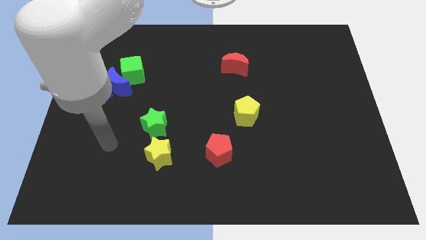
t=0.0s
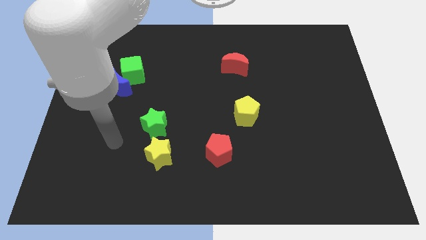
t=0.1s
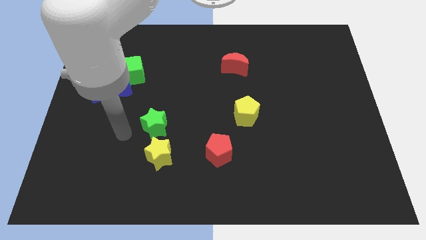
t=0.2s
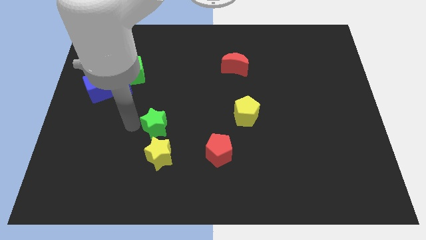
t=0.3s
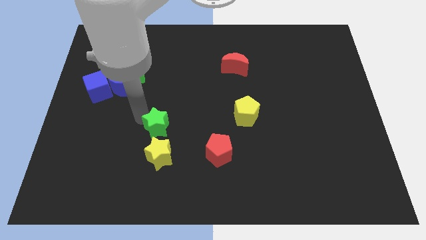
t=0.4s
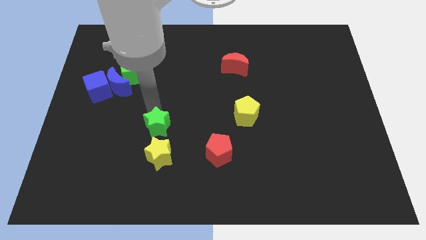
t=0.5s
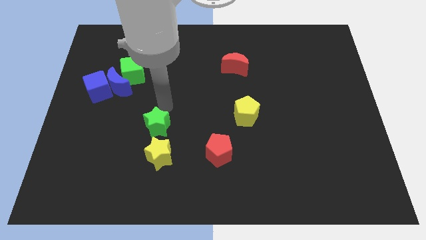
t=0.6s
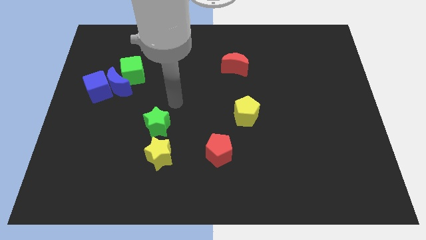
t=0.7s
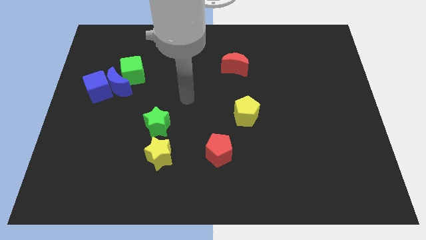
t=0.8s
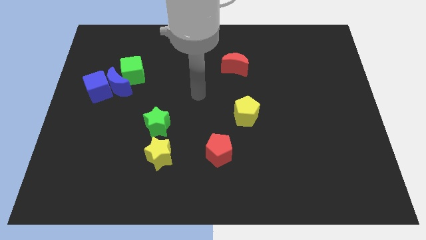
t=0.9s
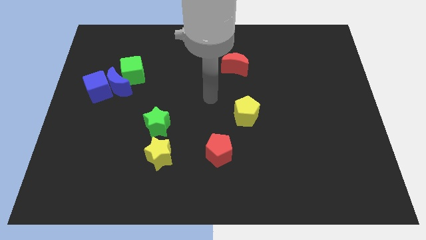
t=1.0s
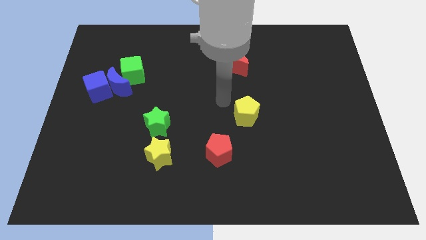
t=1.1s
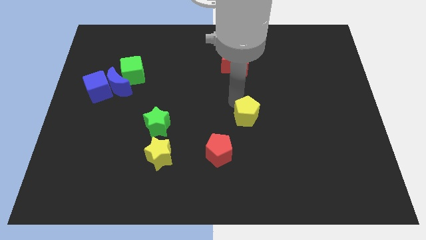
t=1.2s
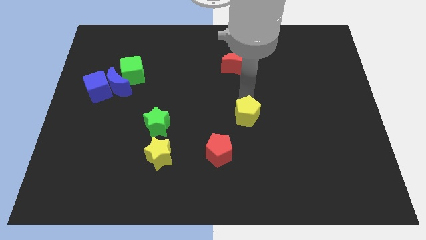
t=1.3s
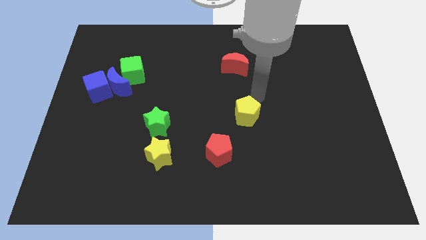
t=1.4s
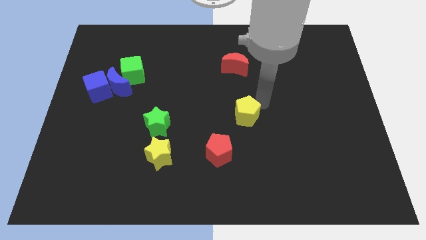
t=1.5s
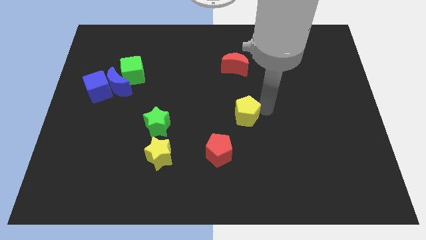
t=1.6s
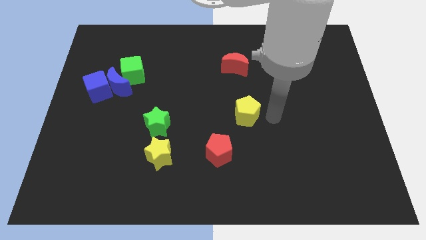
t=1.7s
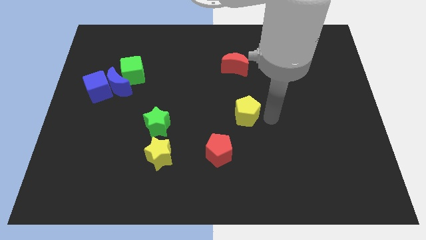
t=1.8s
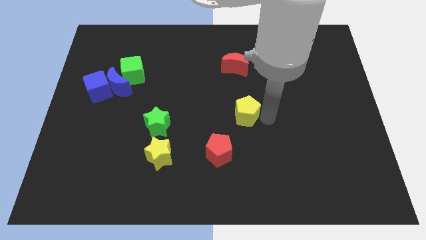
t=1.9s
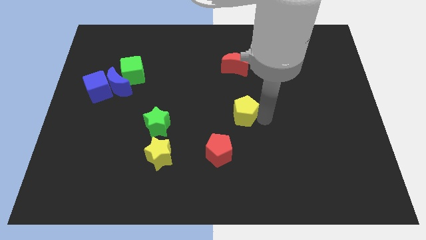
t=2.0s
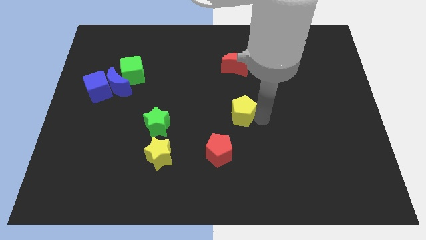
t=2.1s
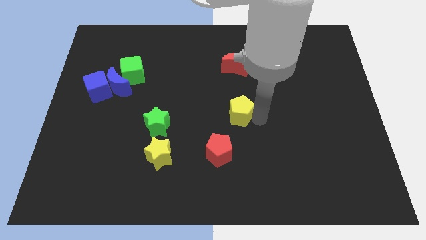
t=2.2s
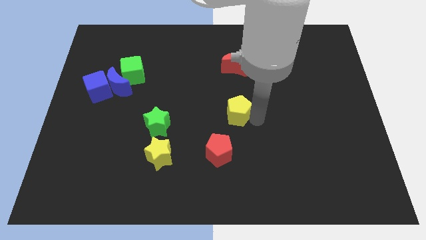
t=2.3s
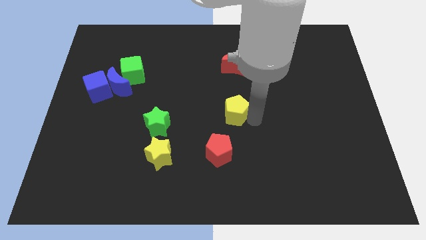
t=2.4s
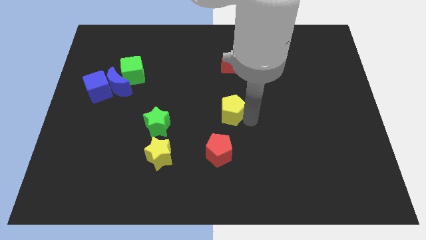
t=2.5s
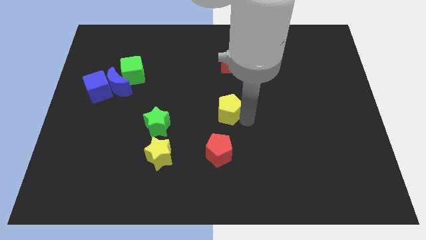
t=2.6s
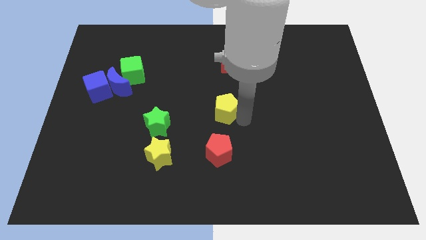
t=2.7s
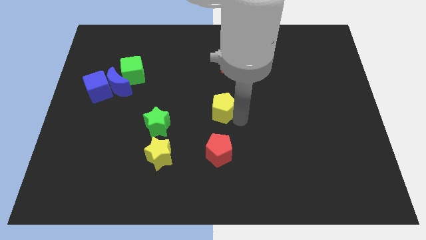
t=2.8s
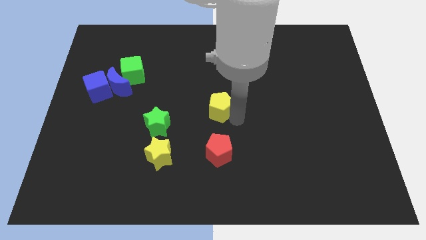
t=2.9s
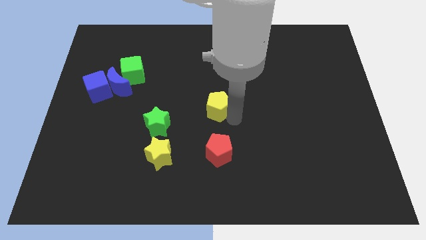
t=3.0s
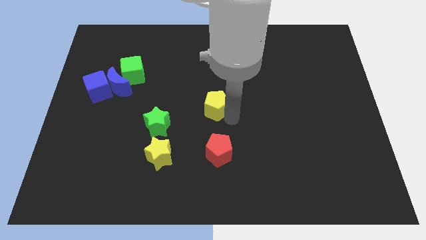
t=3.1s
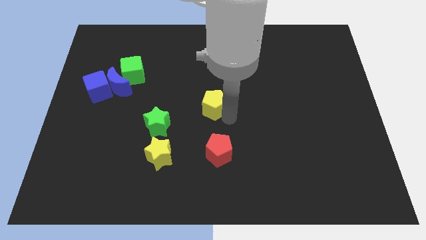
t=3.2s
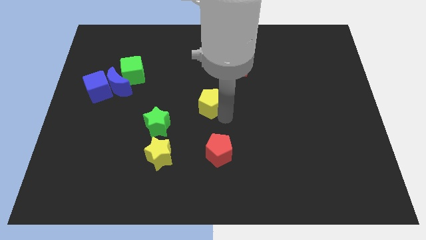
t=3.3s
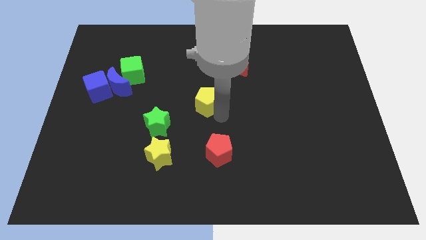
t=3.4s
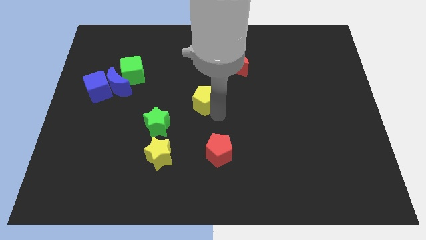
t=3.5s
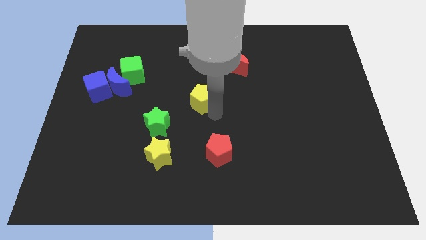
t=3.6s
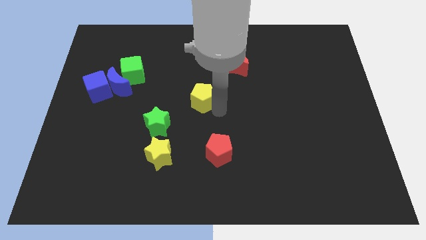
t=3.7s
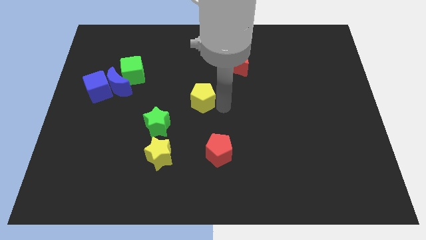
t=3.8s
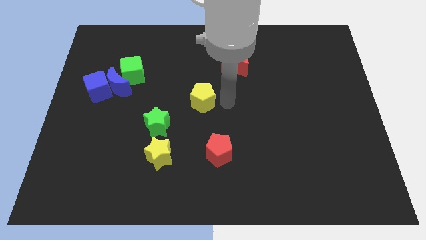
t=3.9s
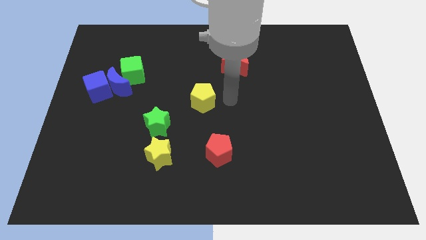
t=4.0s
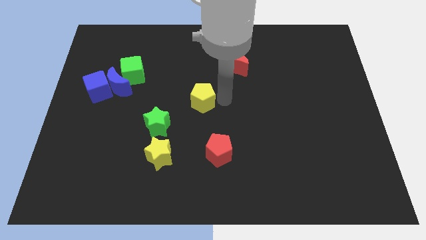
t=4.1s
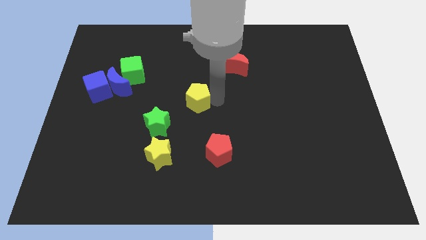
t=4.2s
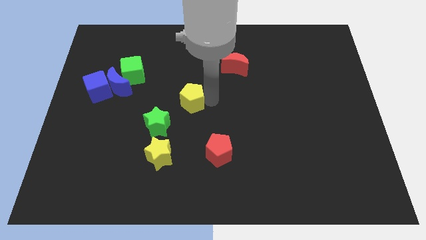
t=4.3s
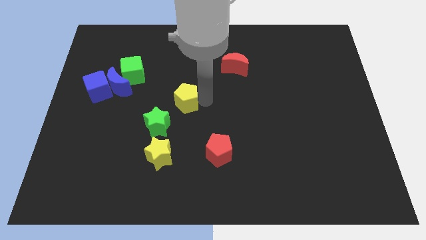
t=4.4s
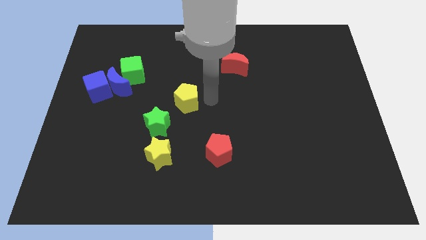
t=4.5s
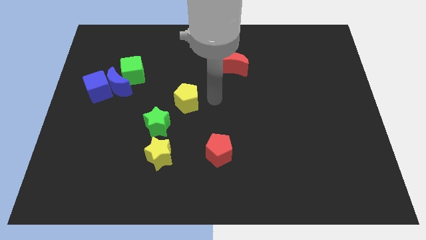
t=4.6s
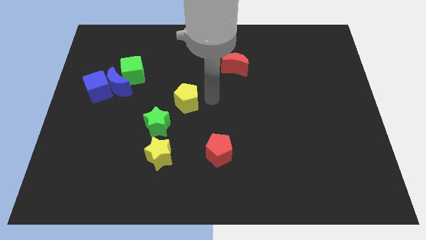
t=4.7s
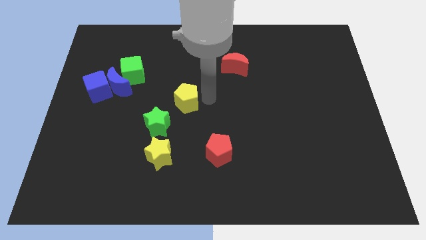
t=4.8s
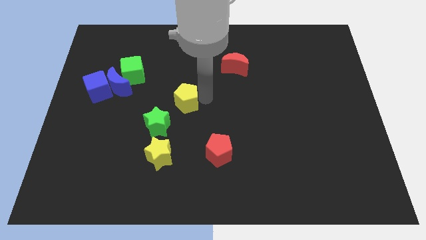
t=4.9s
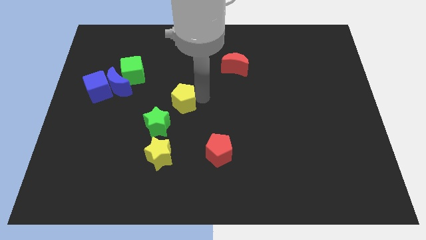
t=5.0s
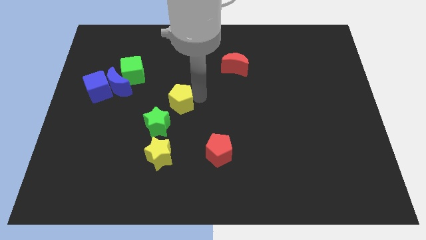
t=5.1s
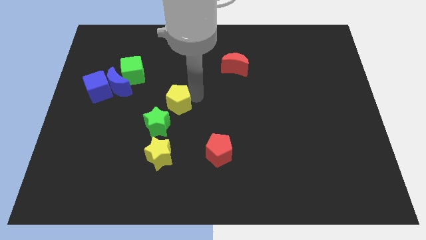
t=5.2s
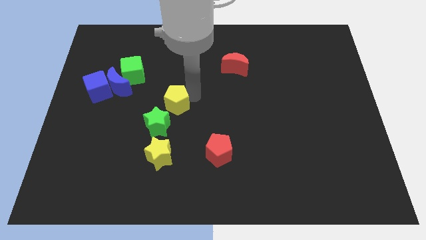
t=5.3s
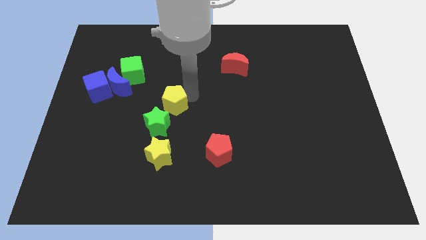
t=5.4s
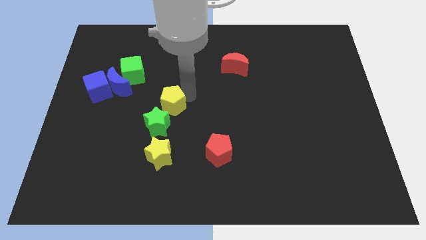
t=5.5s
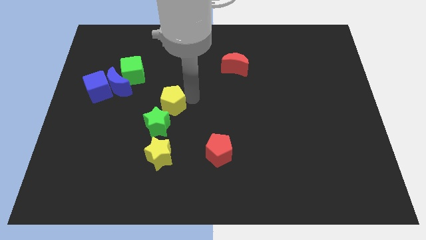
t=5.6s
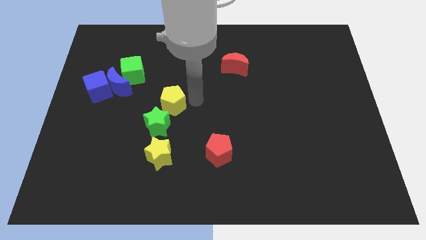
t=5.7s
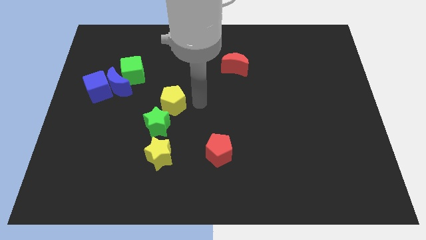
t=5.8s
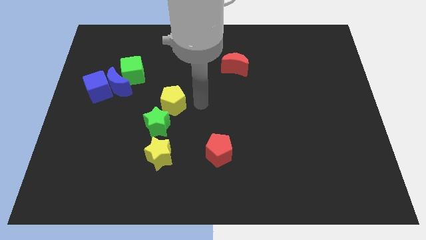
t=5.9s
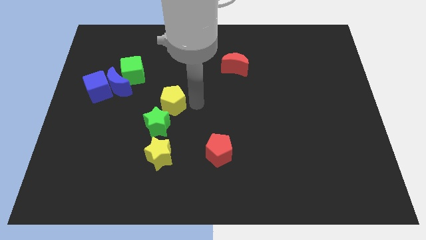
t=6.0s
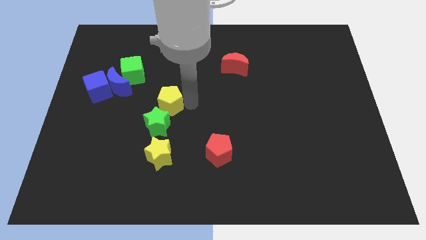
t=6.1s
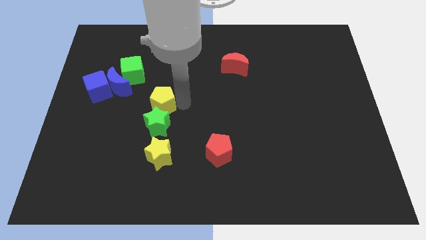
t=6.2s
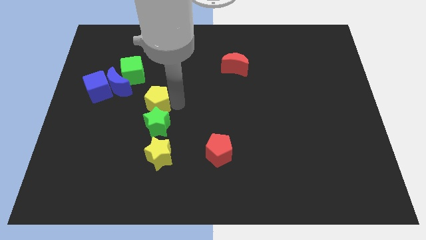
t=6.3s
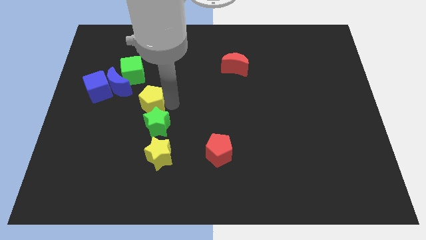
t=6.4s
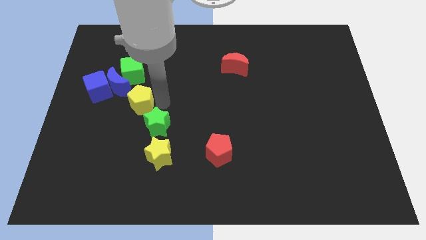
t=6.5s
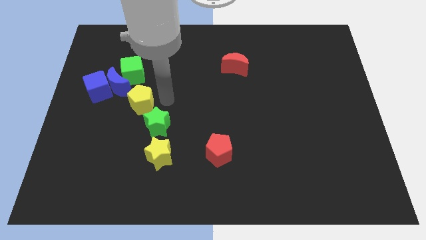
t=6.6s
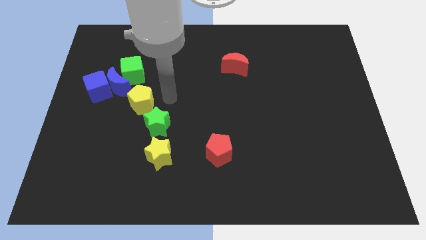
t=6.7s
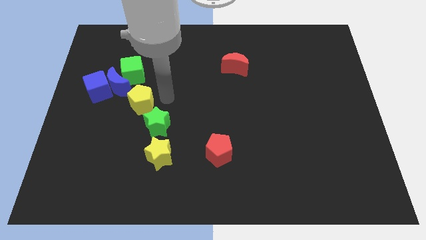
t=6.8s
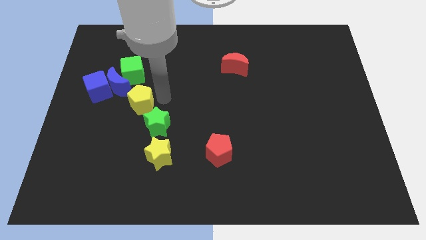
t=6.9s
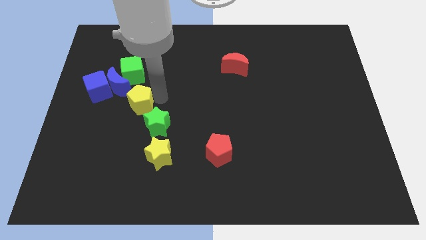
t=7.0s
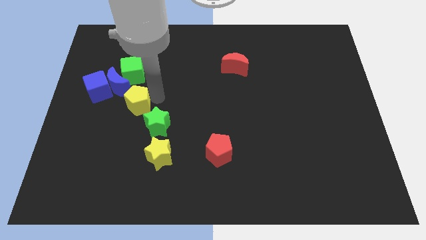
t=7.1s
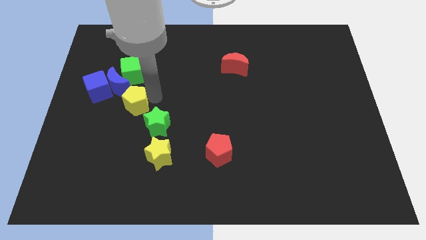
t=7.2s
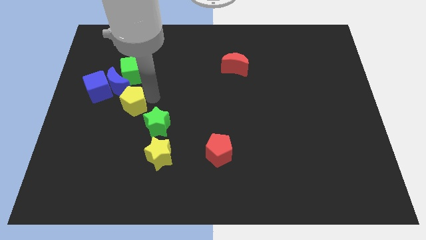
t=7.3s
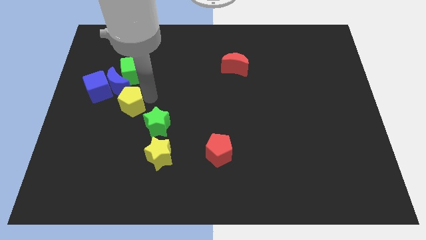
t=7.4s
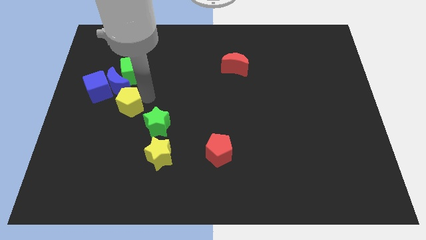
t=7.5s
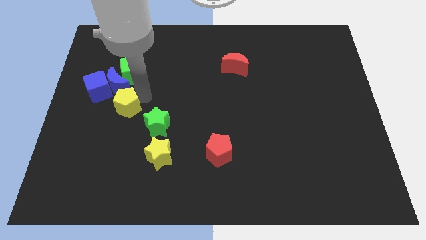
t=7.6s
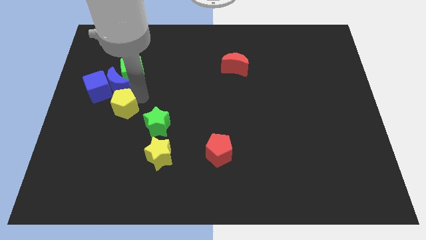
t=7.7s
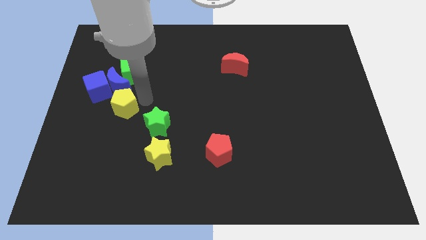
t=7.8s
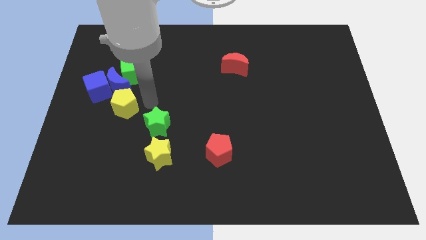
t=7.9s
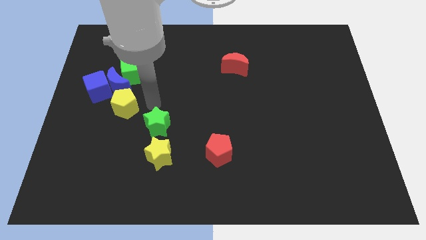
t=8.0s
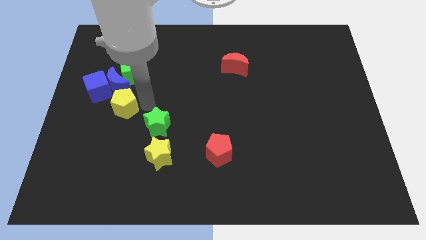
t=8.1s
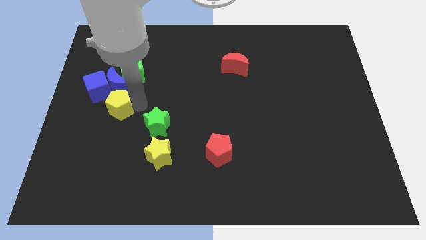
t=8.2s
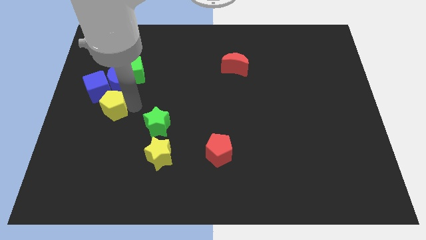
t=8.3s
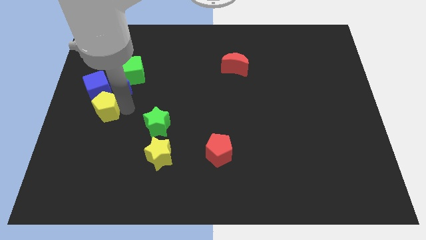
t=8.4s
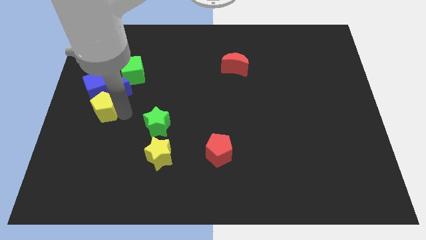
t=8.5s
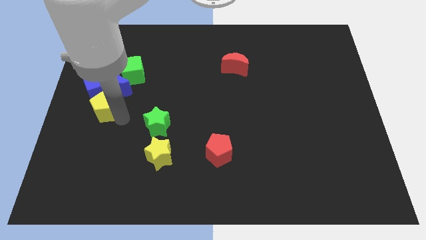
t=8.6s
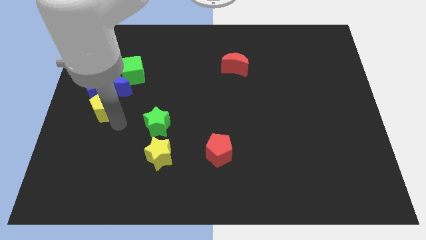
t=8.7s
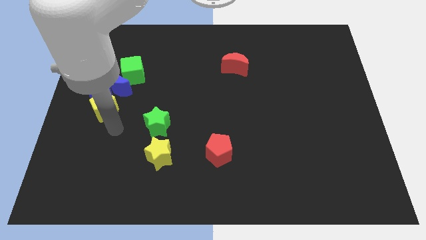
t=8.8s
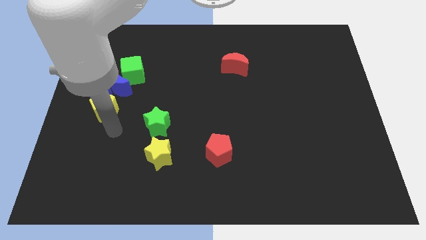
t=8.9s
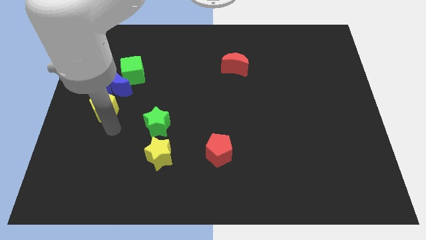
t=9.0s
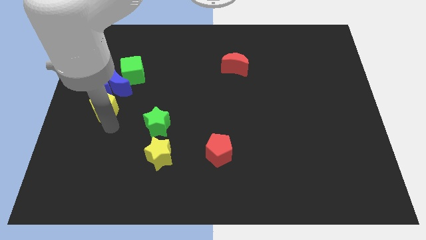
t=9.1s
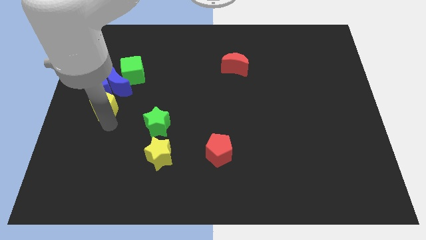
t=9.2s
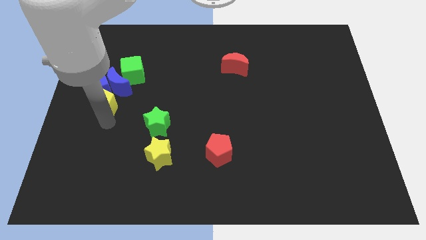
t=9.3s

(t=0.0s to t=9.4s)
push the yellow pentagon close to the blue cube
